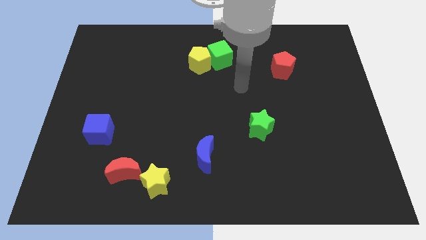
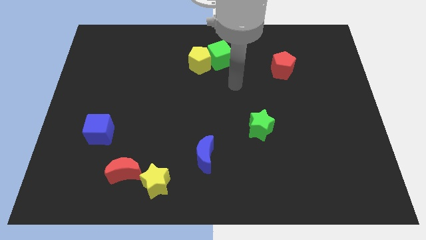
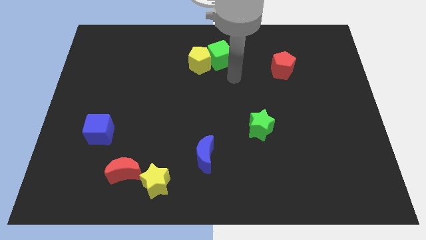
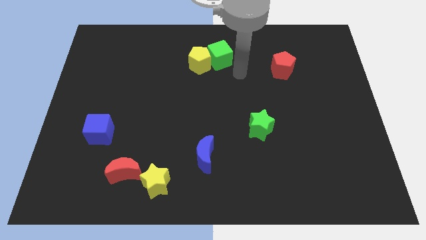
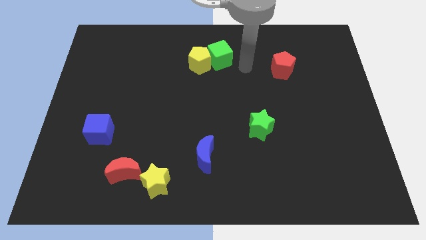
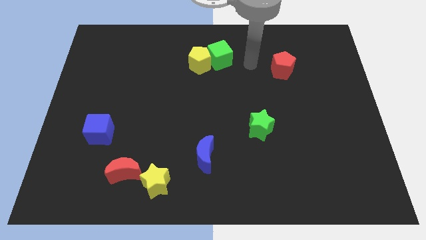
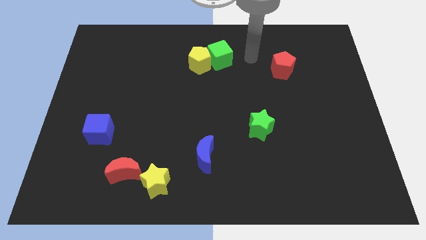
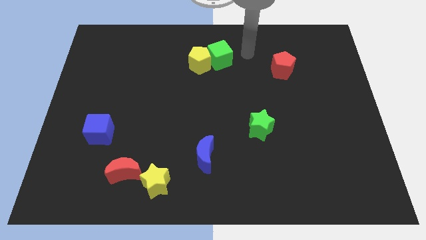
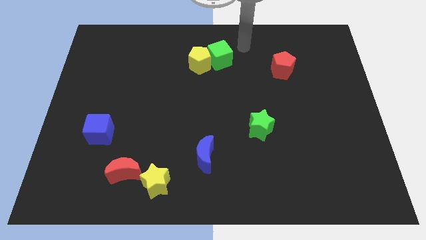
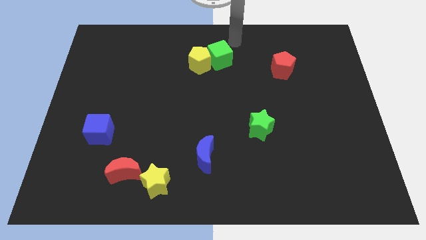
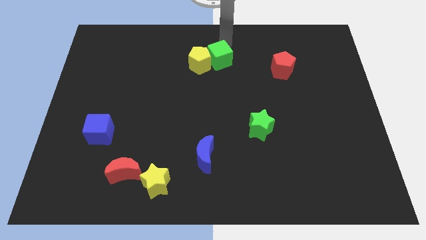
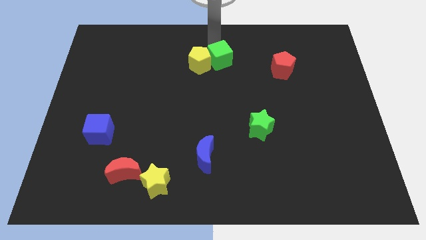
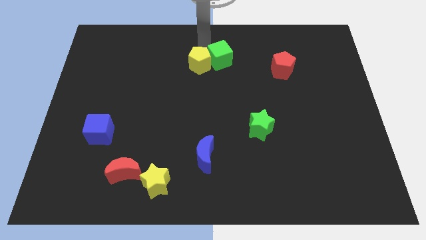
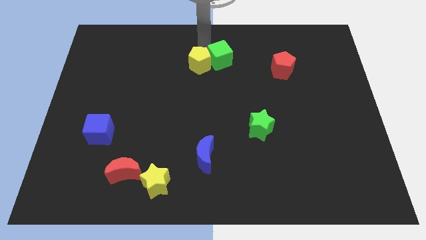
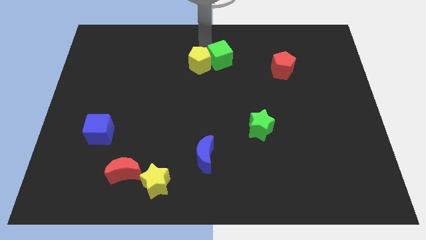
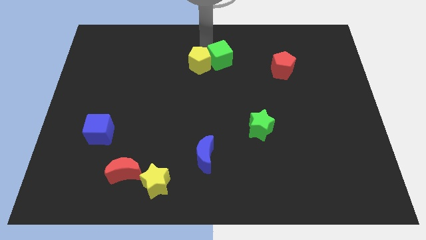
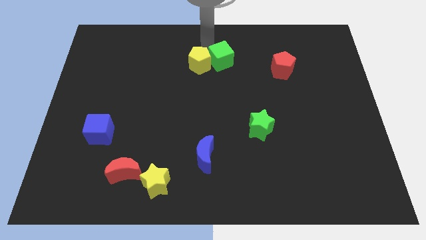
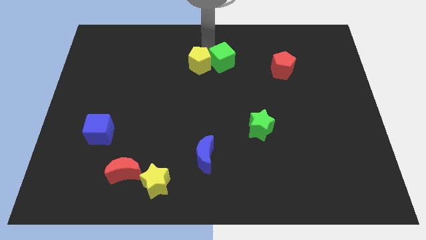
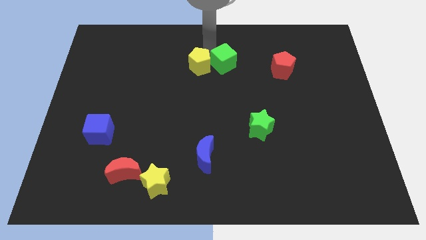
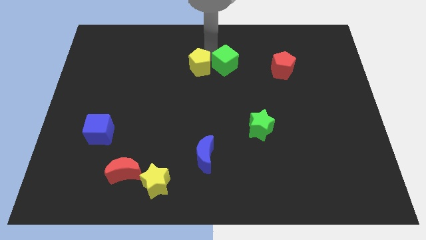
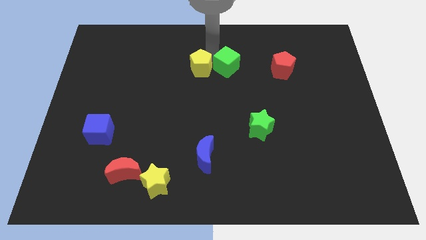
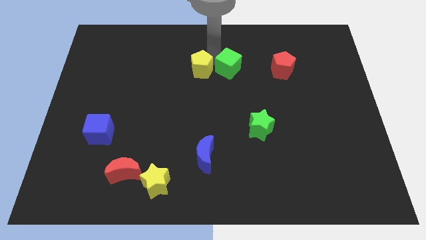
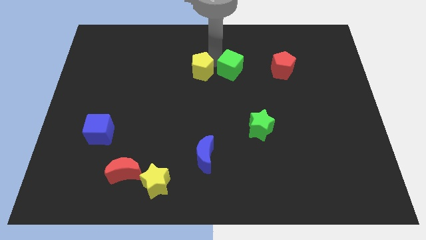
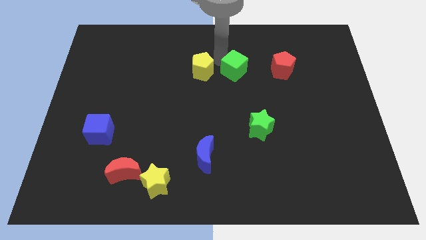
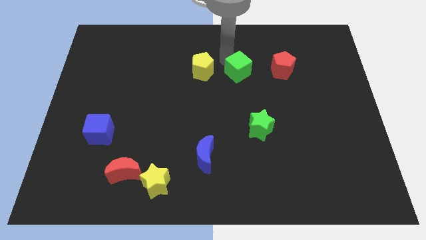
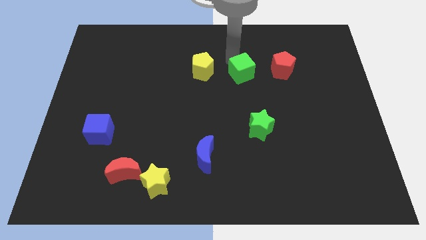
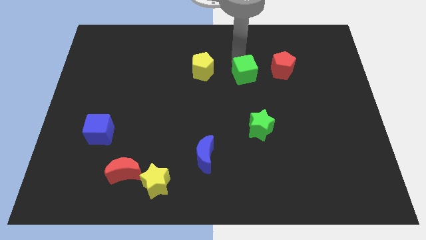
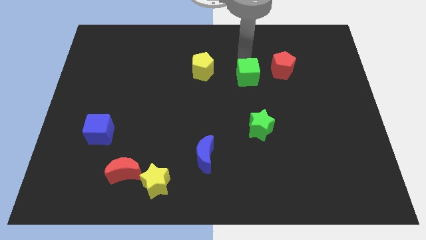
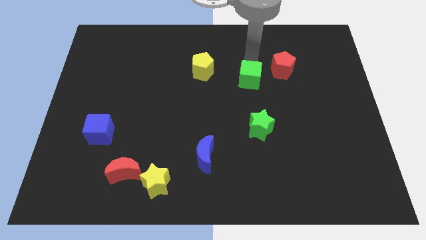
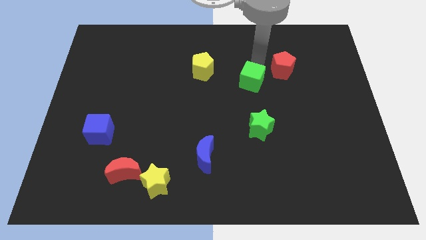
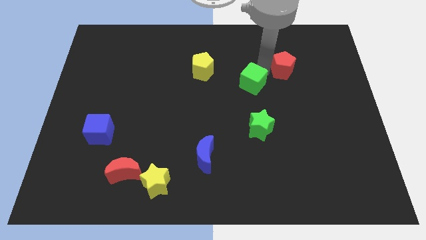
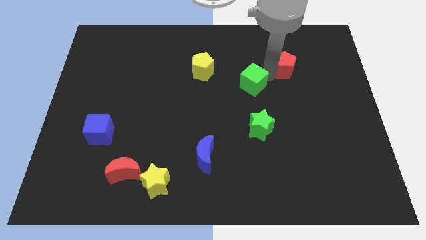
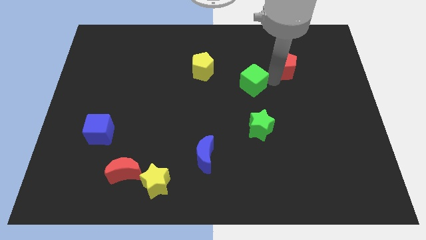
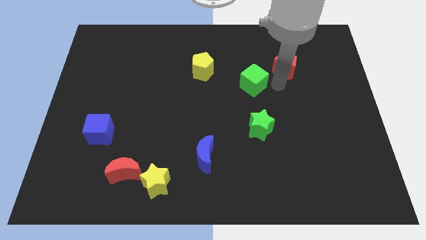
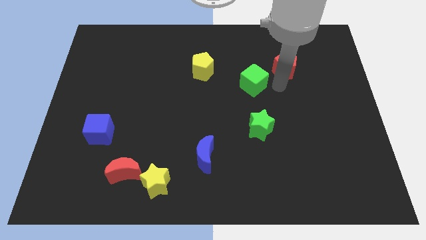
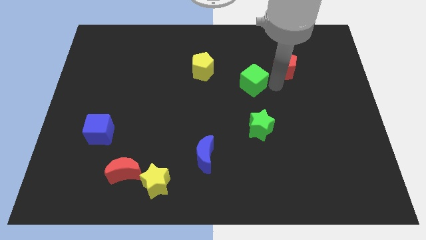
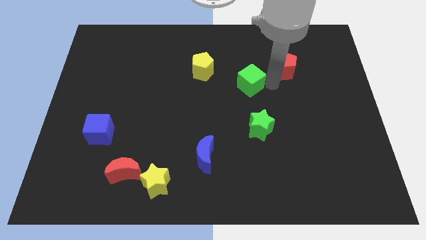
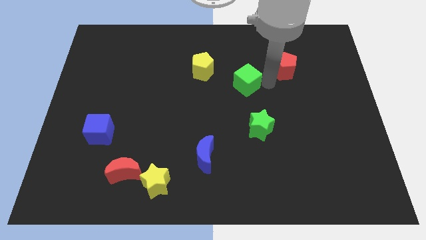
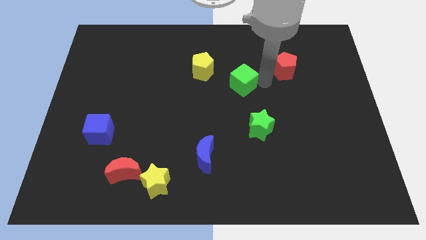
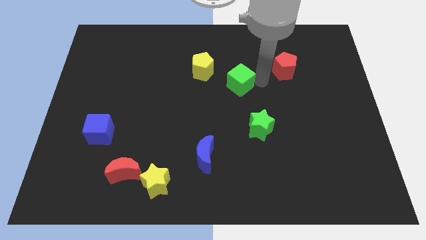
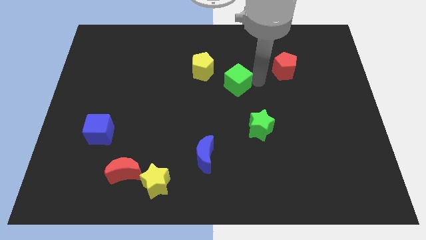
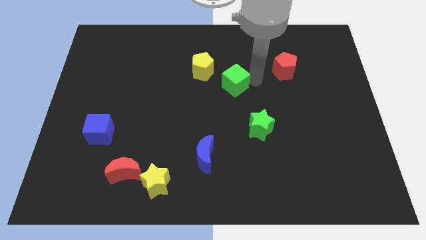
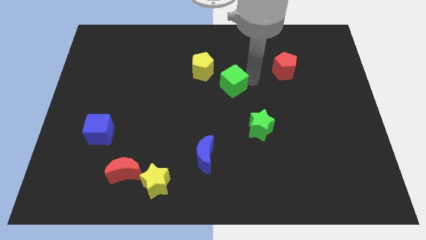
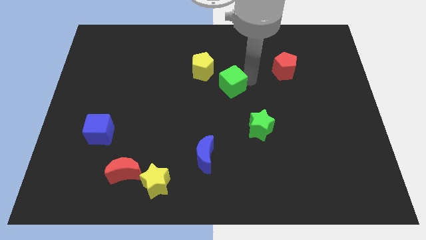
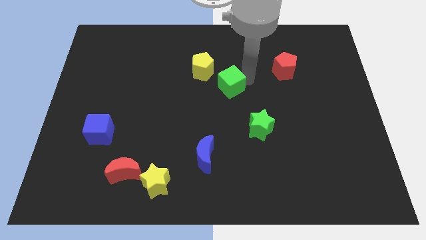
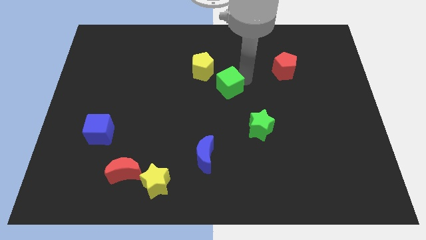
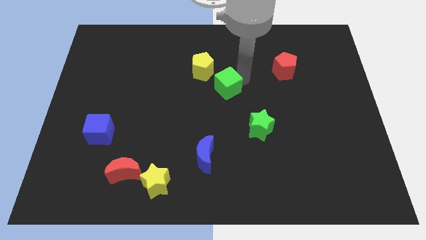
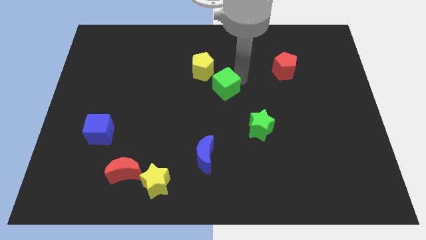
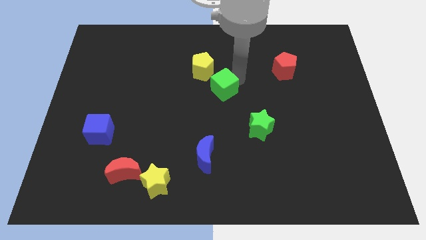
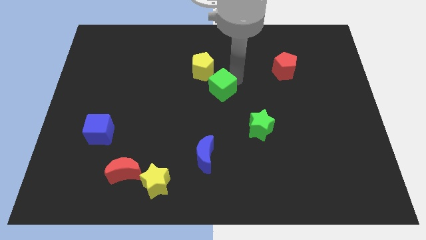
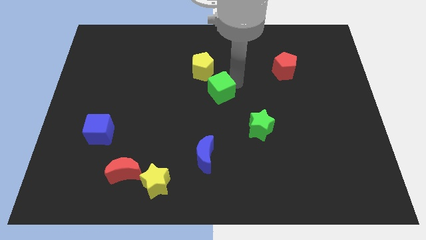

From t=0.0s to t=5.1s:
slide the green cube to the bottom side of the yellow pentagon

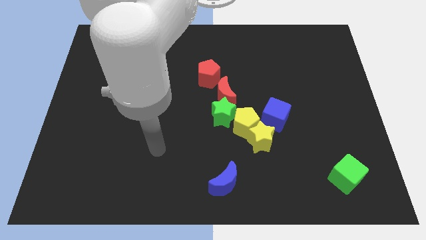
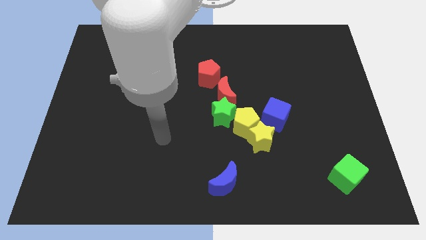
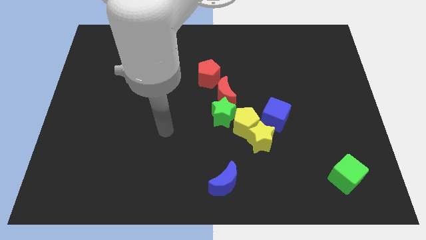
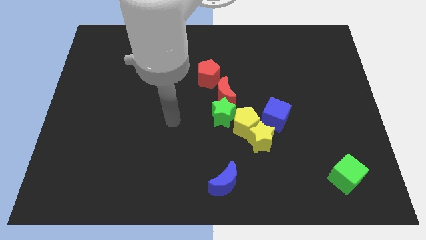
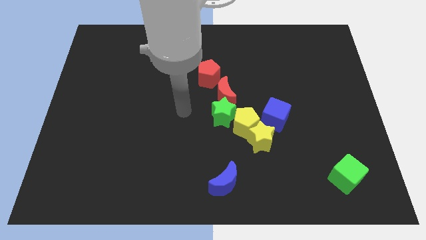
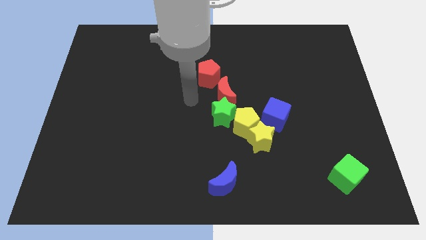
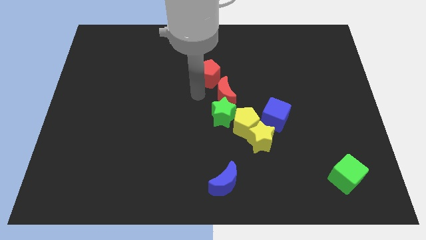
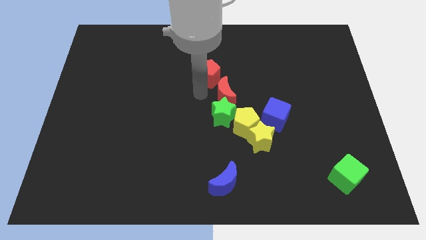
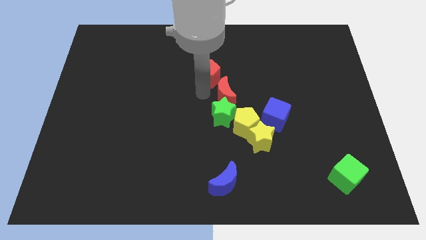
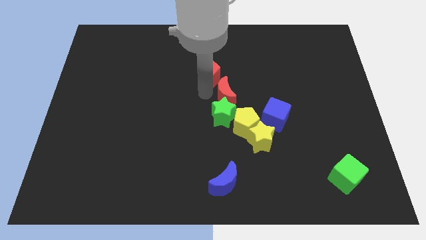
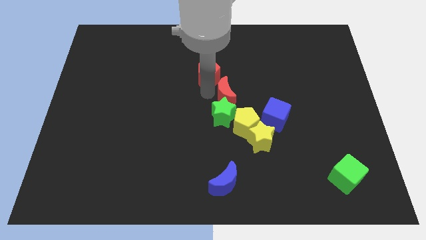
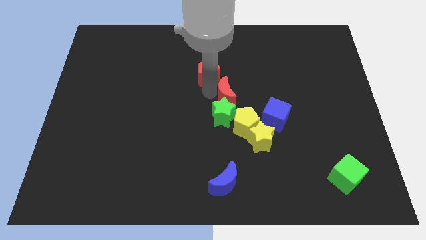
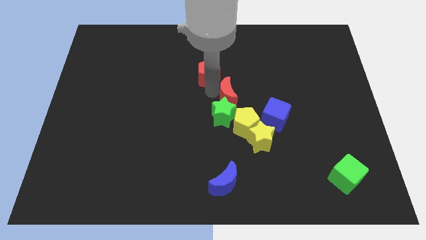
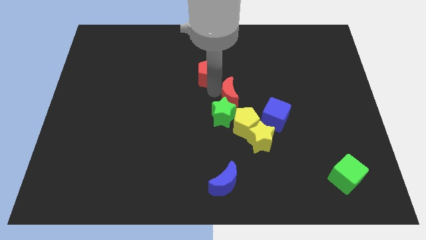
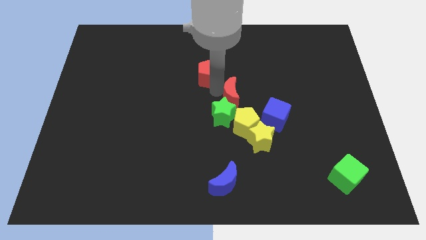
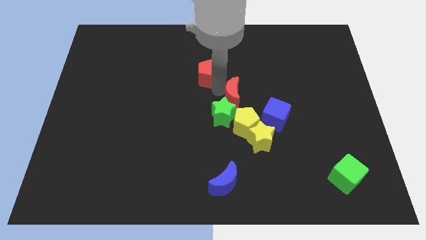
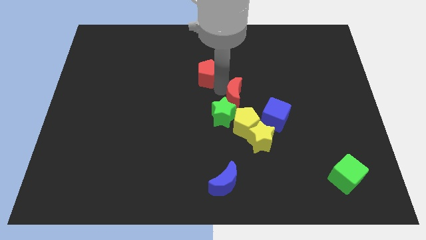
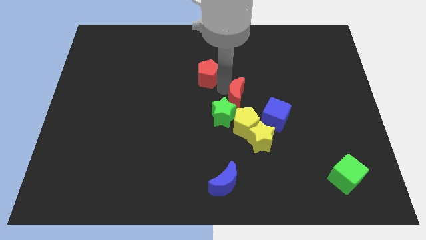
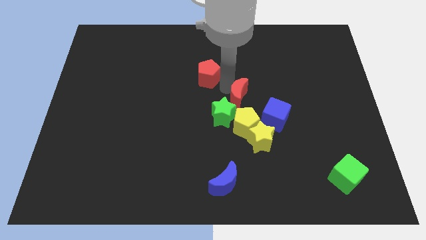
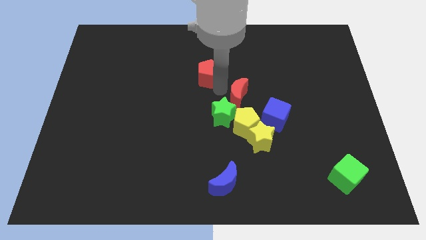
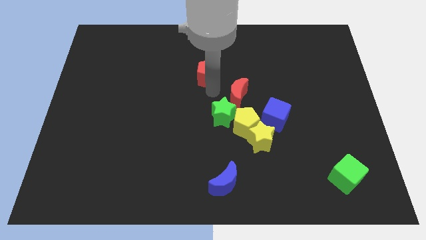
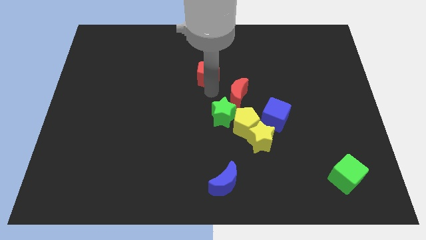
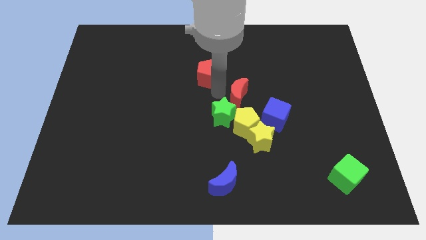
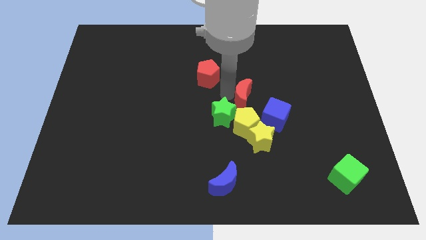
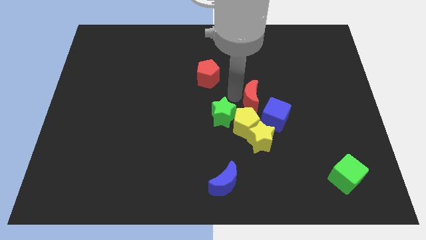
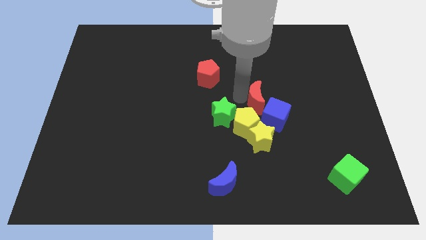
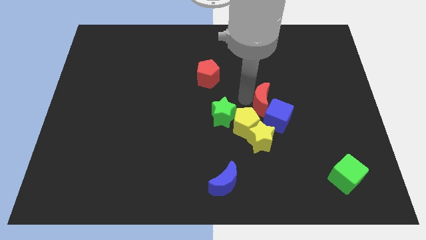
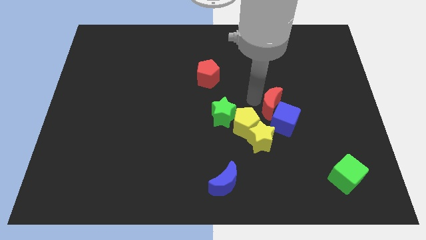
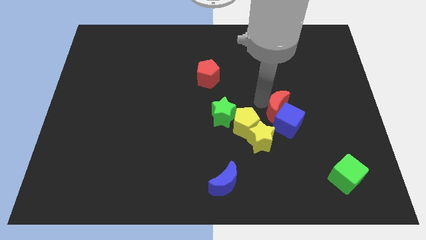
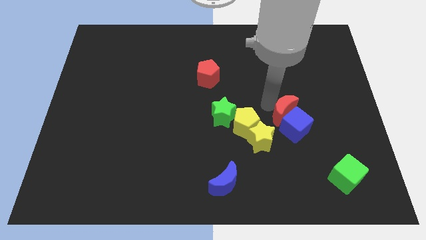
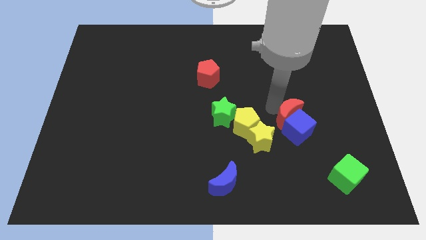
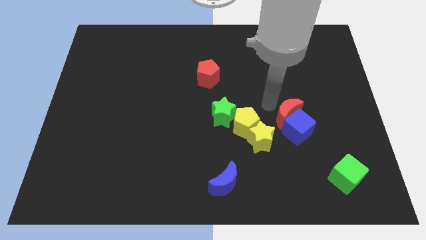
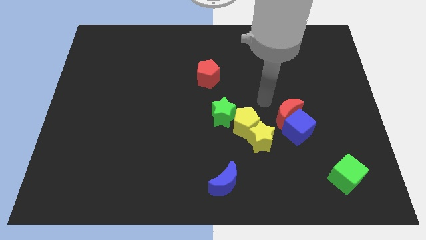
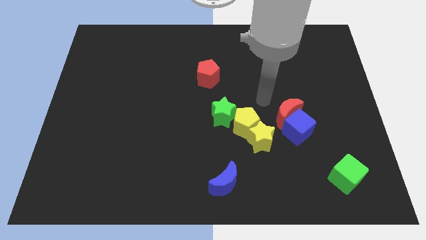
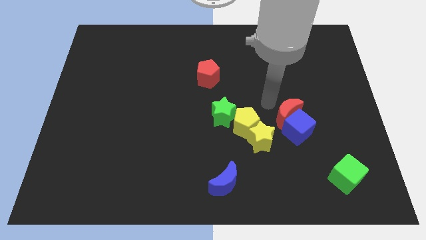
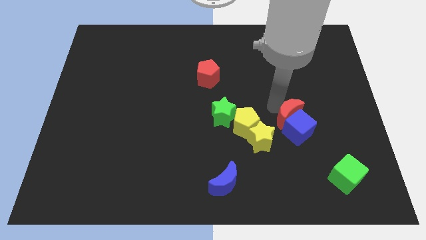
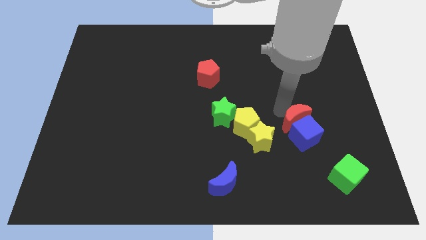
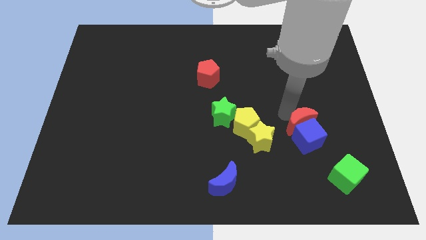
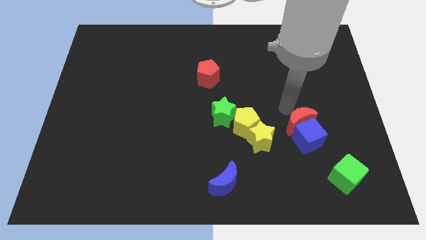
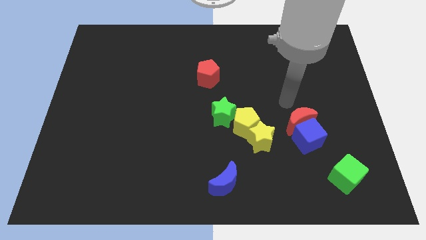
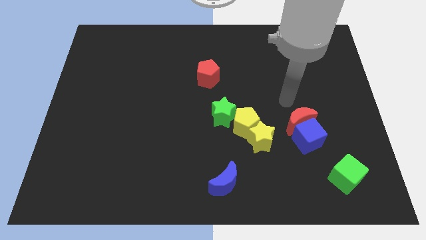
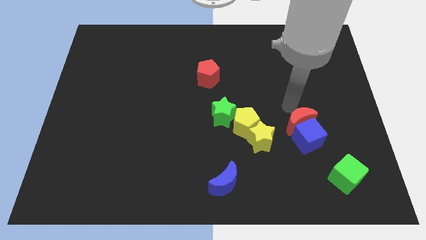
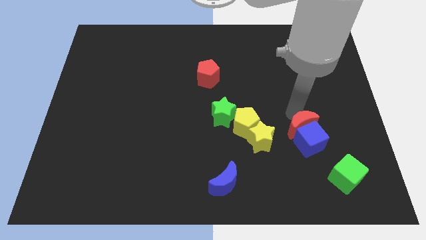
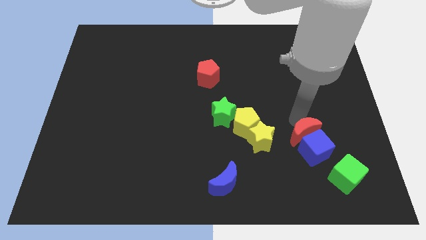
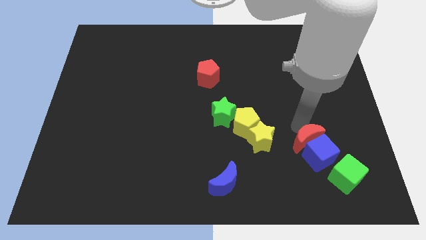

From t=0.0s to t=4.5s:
push the red moon to the top left of the green cube
